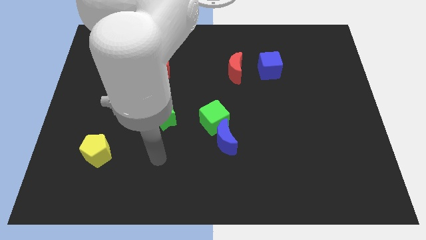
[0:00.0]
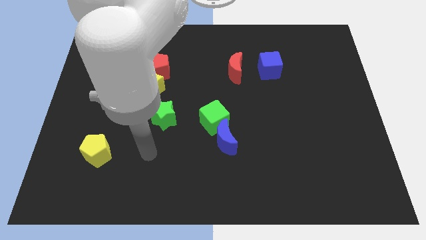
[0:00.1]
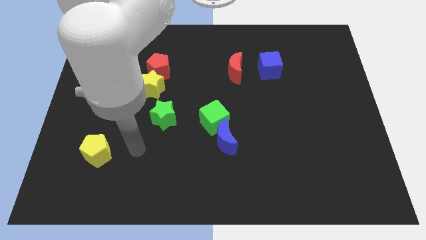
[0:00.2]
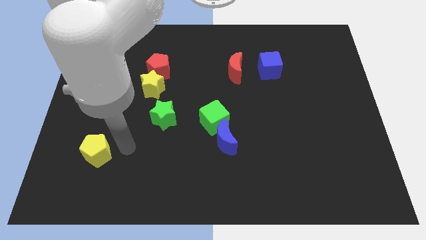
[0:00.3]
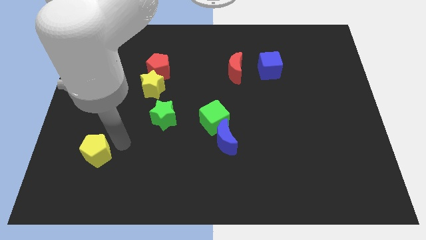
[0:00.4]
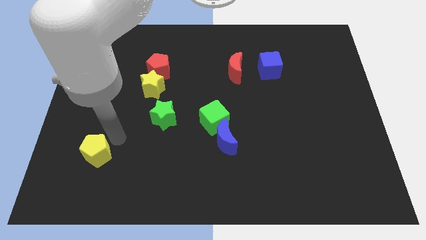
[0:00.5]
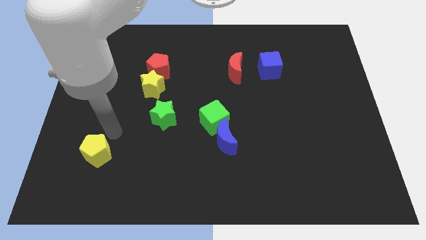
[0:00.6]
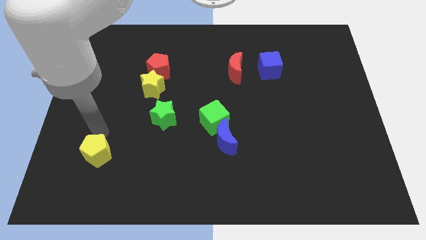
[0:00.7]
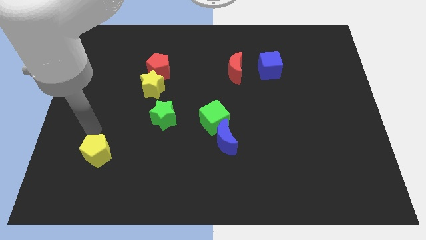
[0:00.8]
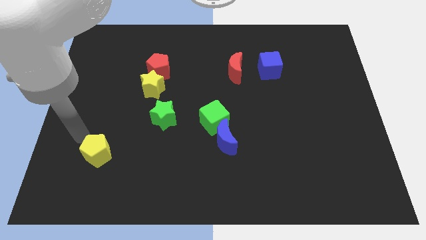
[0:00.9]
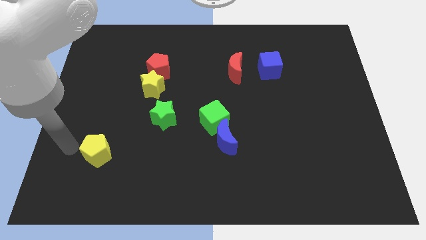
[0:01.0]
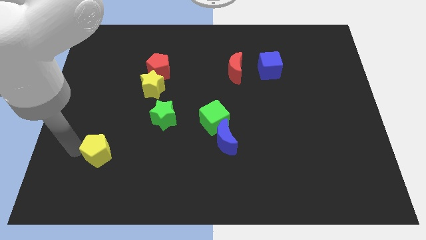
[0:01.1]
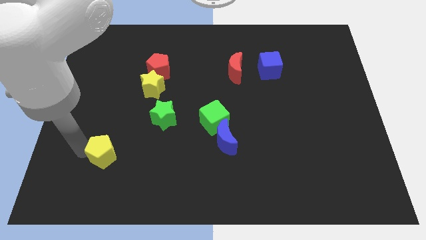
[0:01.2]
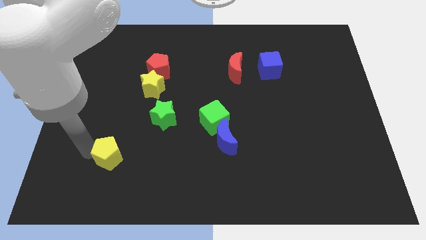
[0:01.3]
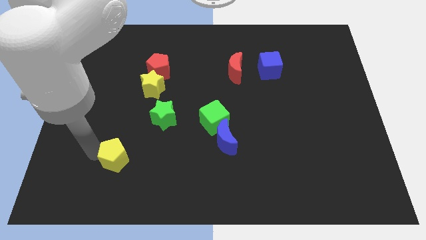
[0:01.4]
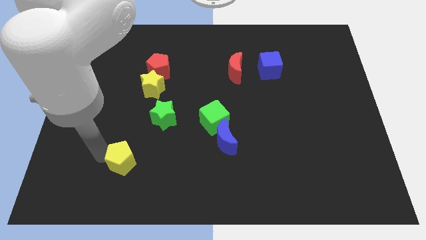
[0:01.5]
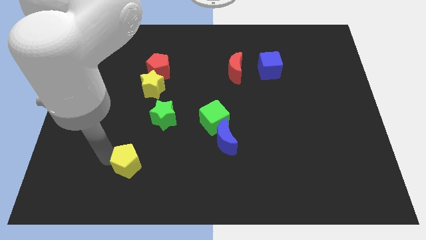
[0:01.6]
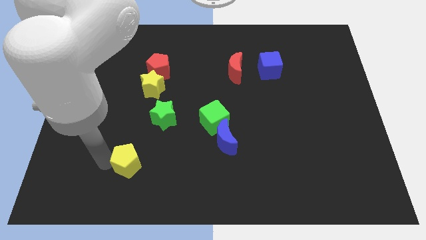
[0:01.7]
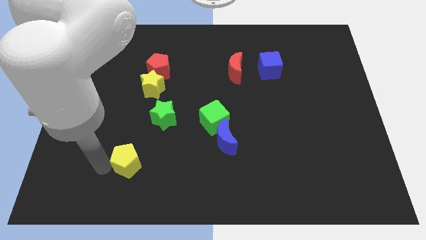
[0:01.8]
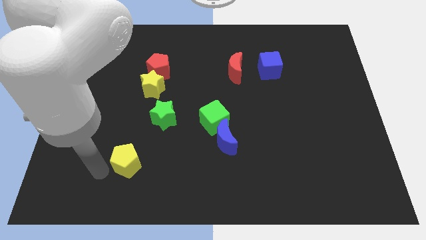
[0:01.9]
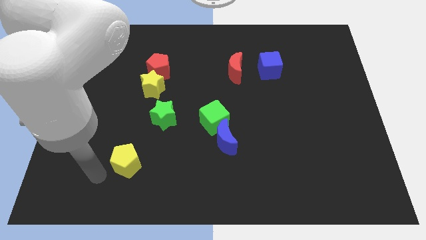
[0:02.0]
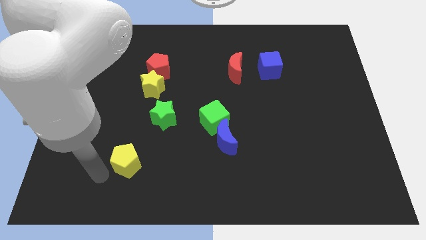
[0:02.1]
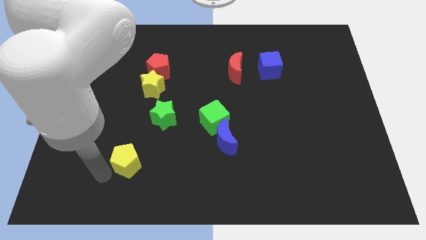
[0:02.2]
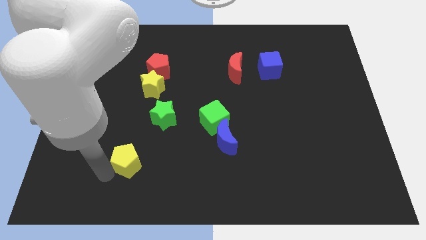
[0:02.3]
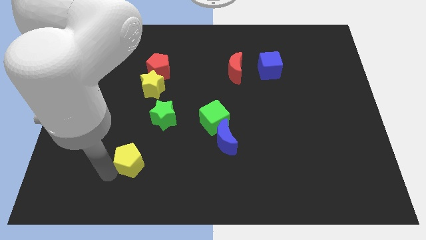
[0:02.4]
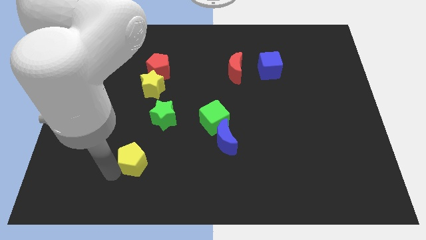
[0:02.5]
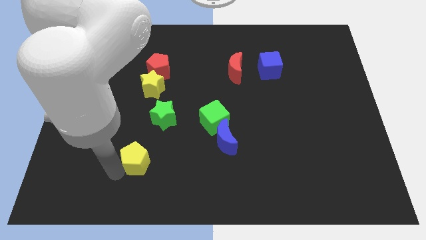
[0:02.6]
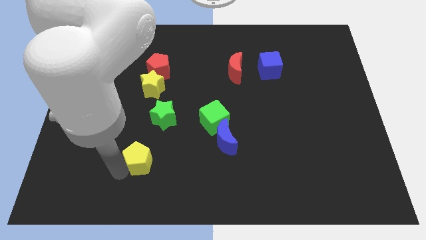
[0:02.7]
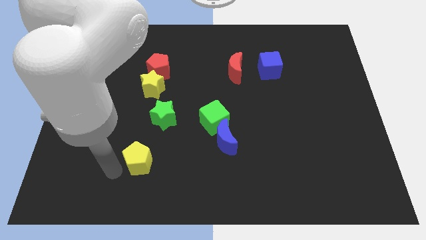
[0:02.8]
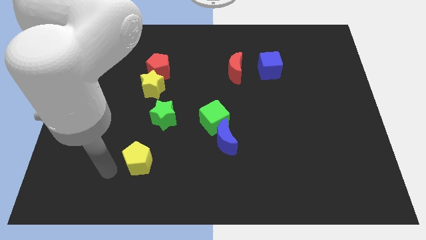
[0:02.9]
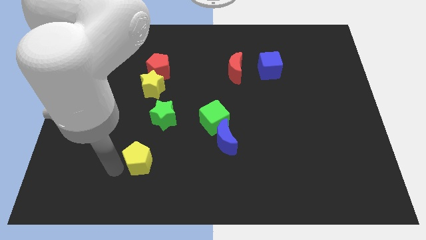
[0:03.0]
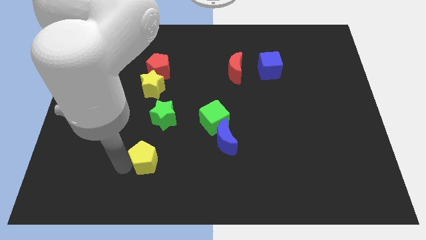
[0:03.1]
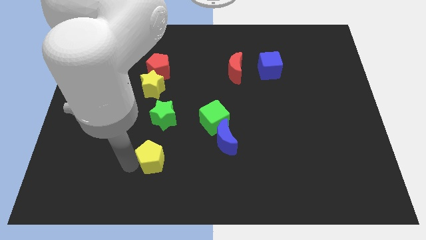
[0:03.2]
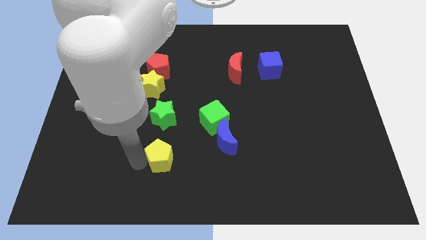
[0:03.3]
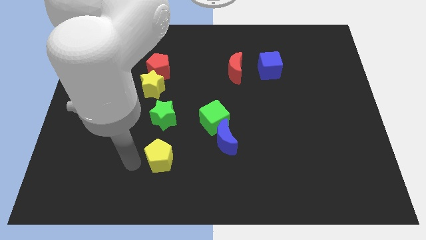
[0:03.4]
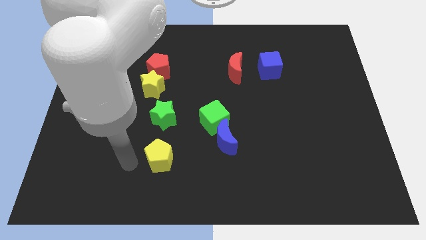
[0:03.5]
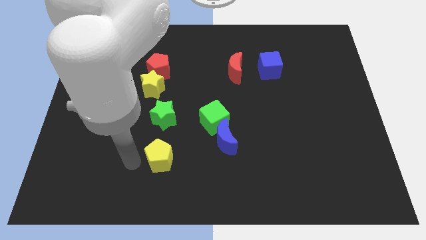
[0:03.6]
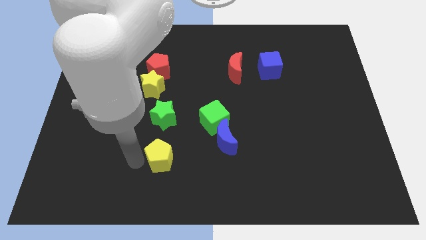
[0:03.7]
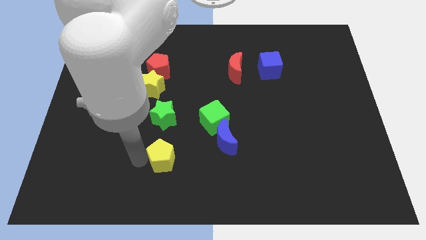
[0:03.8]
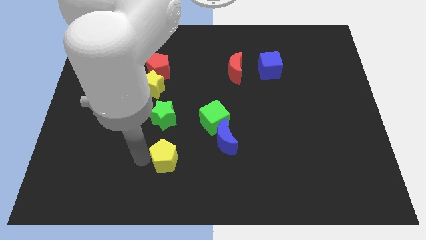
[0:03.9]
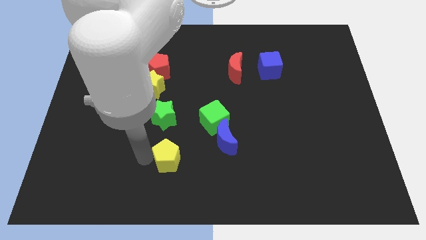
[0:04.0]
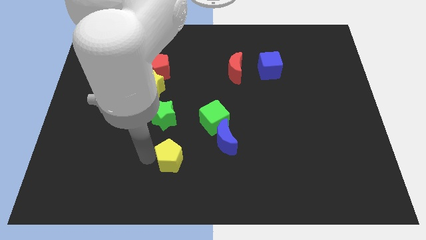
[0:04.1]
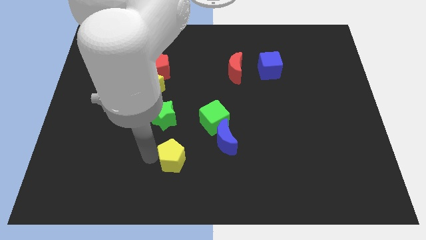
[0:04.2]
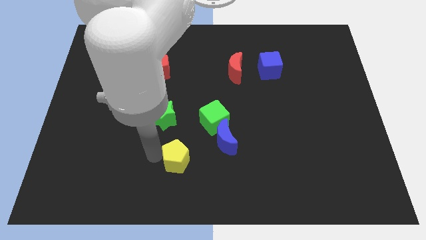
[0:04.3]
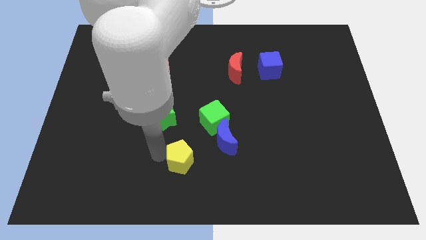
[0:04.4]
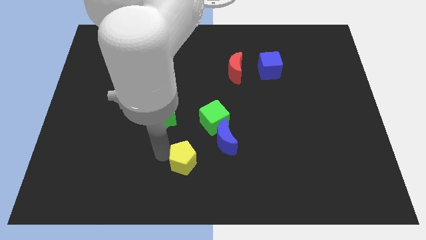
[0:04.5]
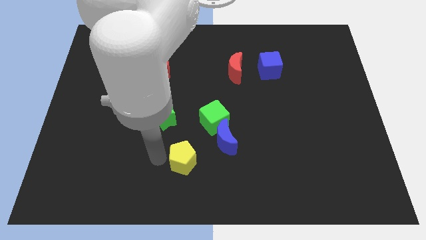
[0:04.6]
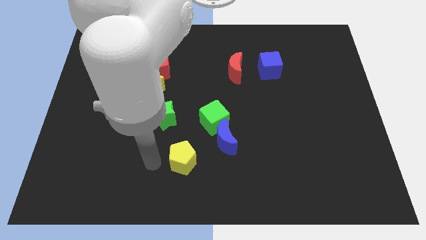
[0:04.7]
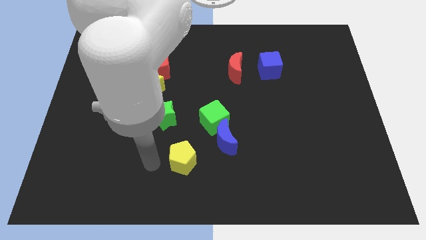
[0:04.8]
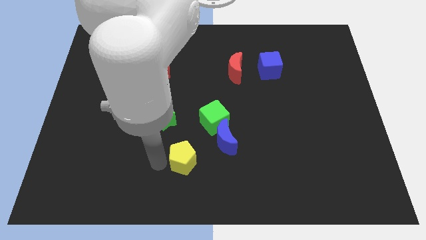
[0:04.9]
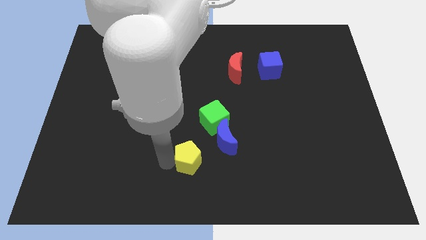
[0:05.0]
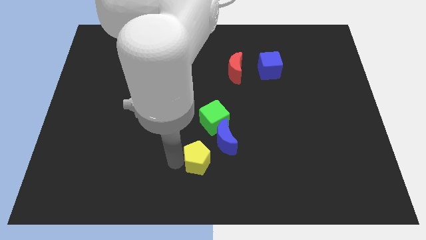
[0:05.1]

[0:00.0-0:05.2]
push the yellow pentagon to the right

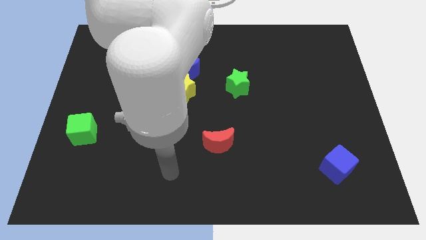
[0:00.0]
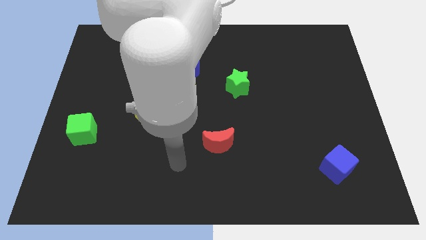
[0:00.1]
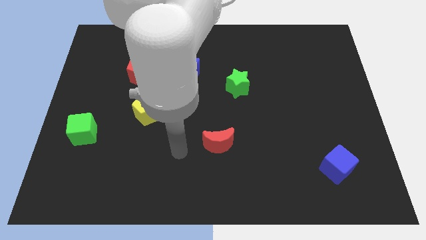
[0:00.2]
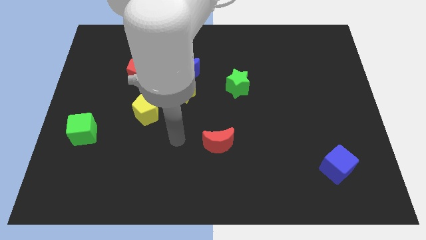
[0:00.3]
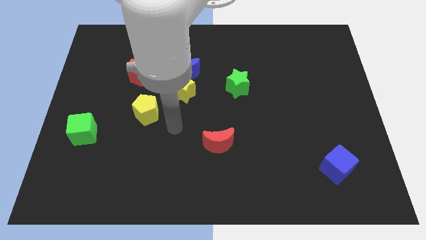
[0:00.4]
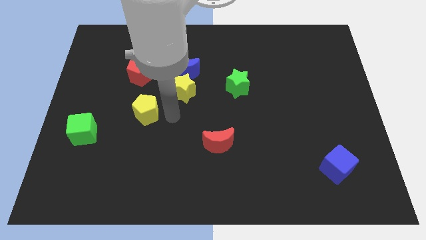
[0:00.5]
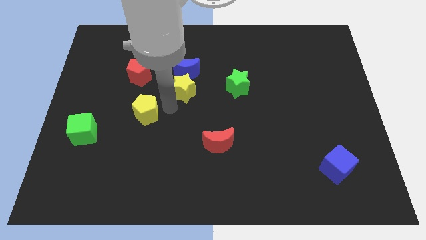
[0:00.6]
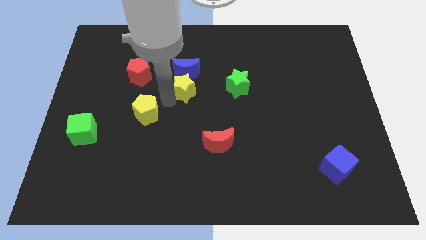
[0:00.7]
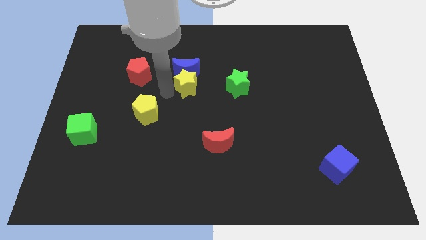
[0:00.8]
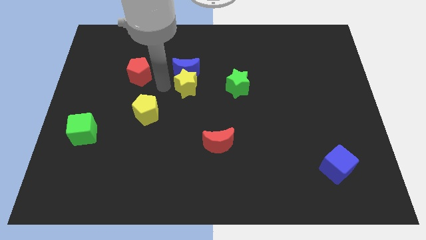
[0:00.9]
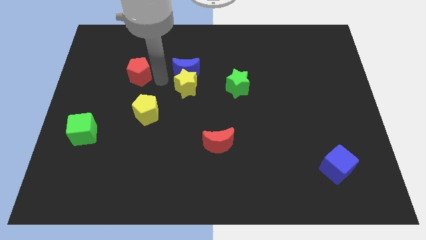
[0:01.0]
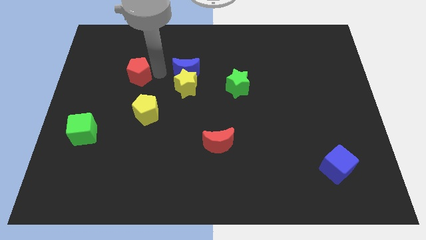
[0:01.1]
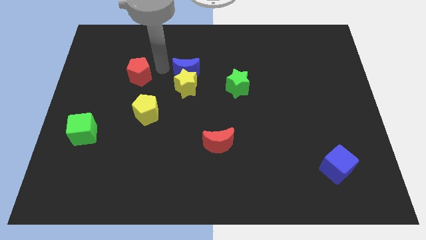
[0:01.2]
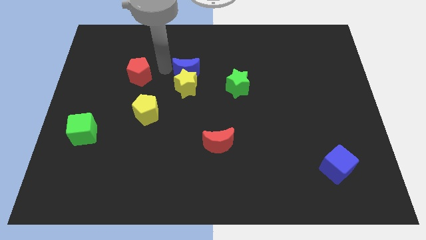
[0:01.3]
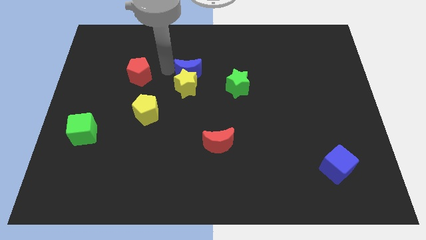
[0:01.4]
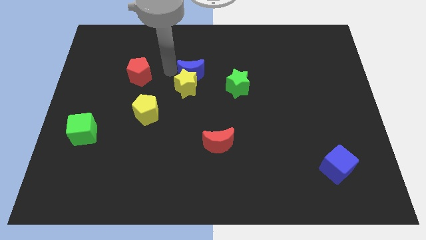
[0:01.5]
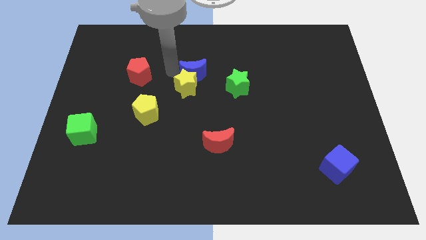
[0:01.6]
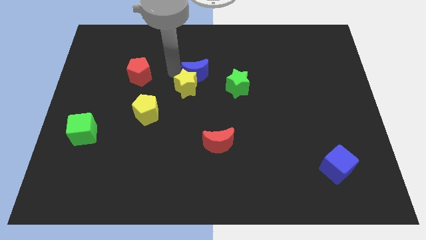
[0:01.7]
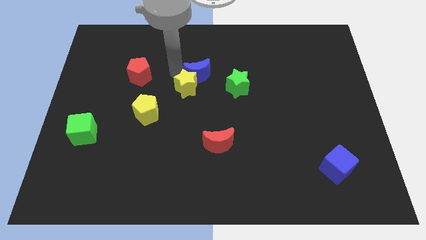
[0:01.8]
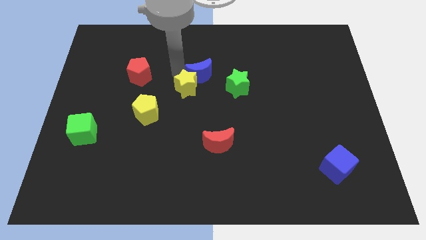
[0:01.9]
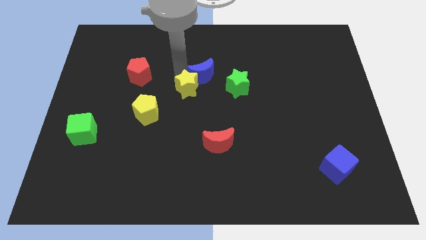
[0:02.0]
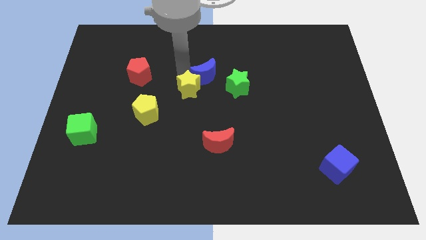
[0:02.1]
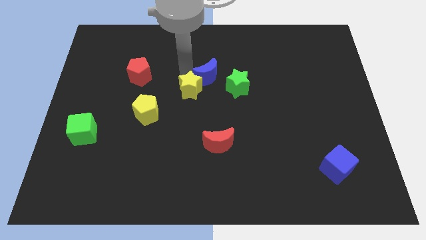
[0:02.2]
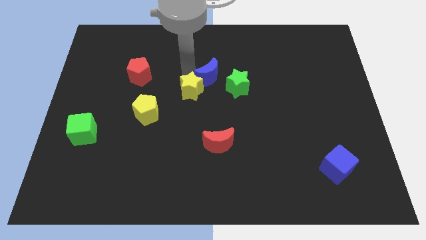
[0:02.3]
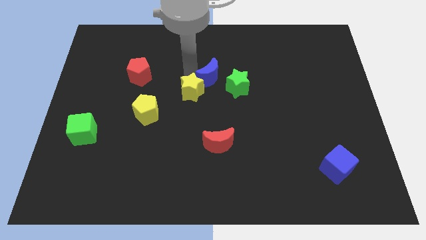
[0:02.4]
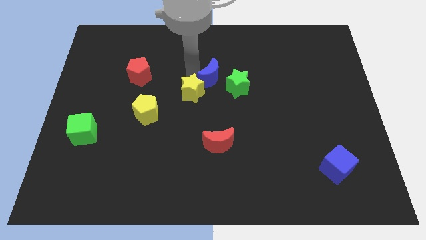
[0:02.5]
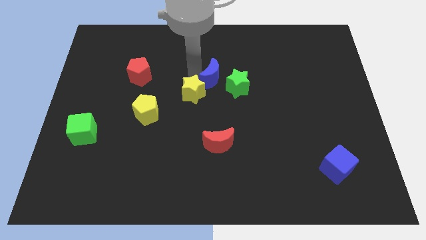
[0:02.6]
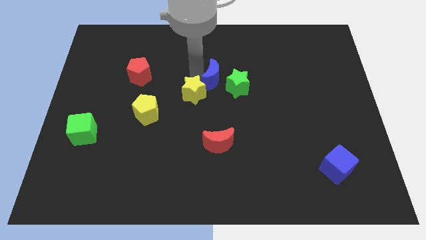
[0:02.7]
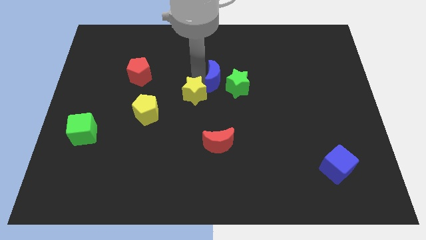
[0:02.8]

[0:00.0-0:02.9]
slightly slide the blue moon to the right
